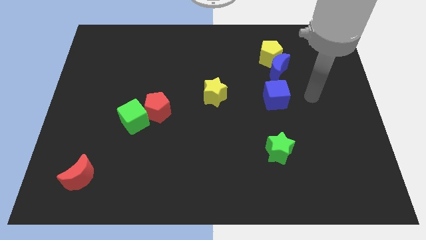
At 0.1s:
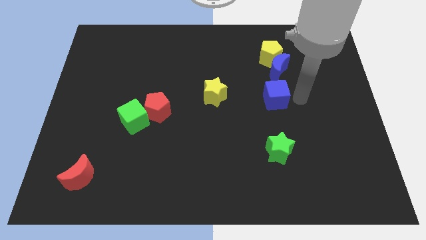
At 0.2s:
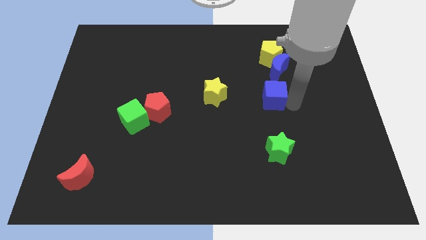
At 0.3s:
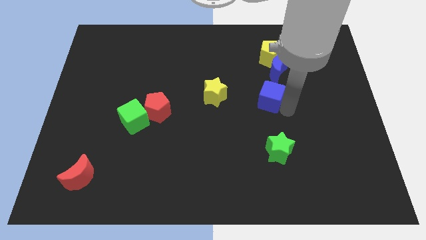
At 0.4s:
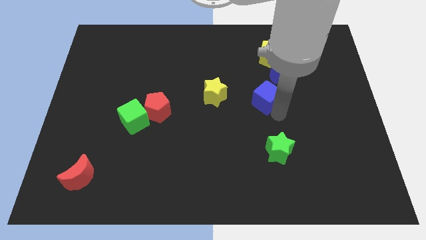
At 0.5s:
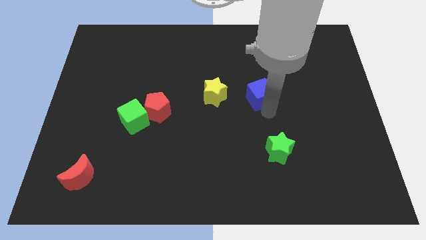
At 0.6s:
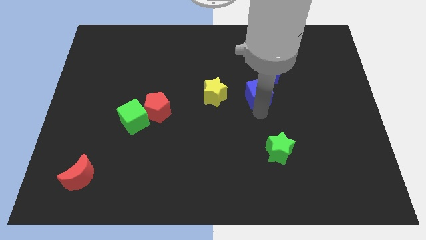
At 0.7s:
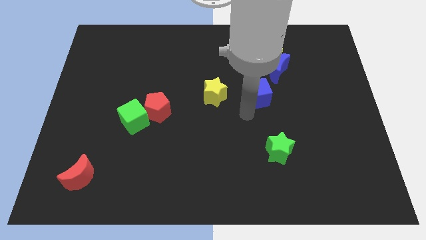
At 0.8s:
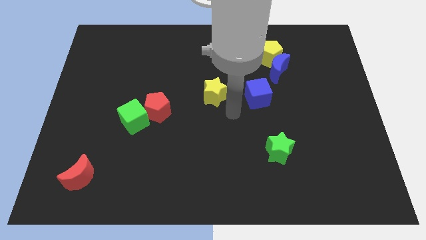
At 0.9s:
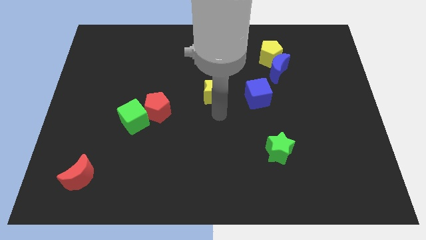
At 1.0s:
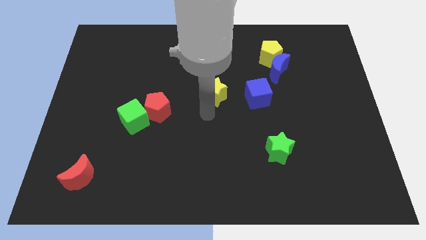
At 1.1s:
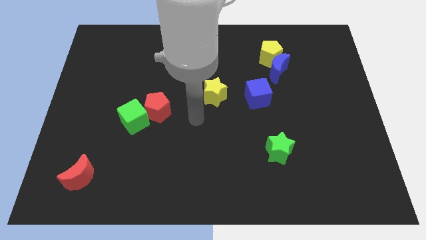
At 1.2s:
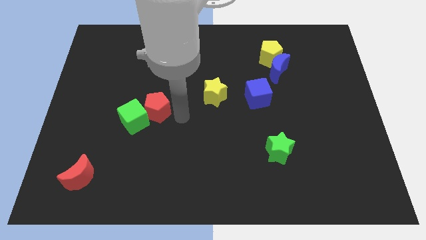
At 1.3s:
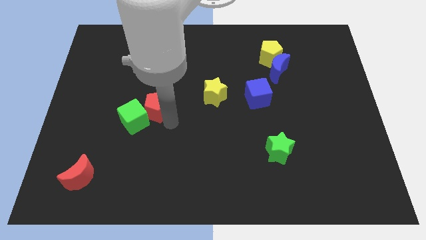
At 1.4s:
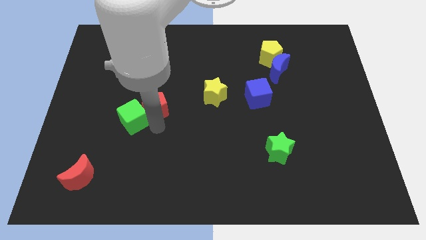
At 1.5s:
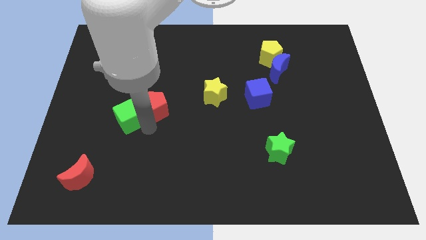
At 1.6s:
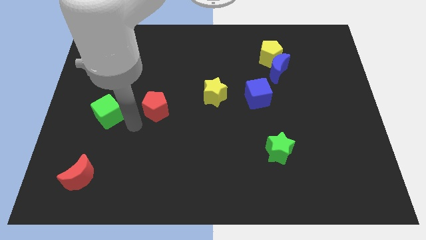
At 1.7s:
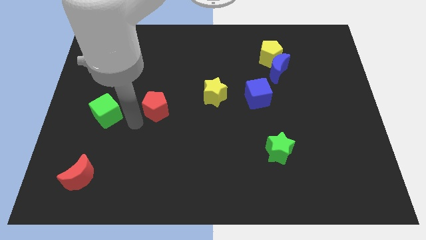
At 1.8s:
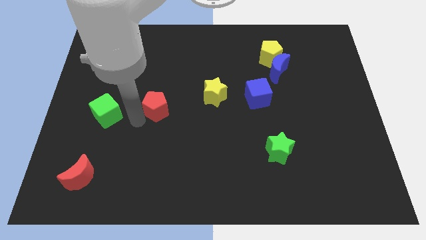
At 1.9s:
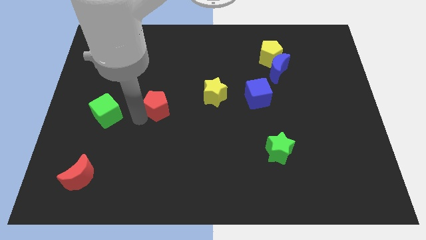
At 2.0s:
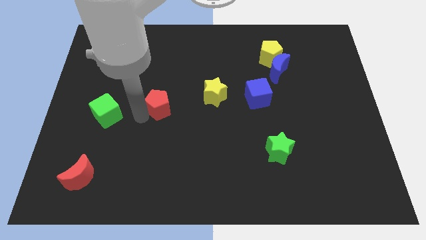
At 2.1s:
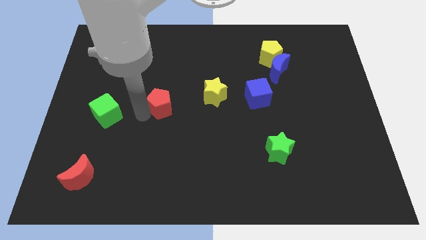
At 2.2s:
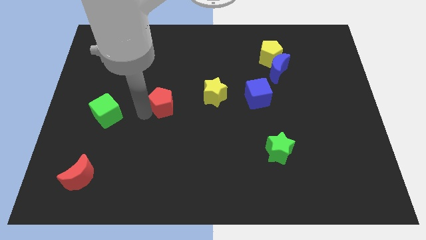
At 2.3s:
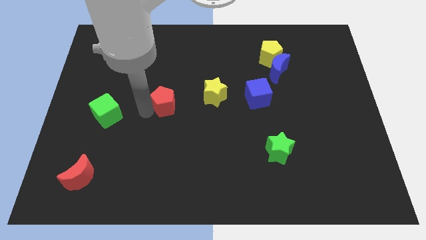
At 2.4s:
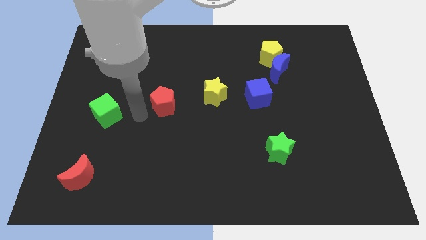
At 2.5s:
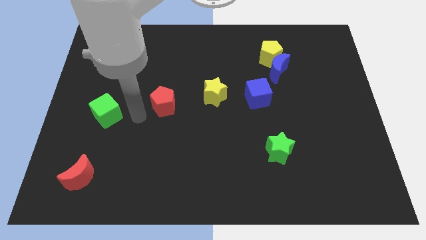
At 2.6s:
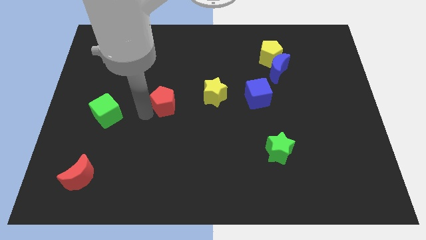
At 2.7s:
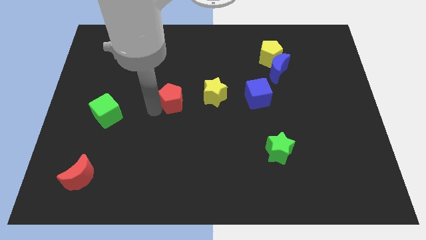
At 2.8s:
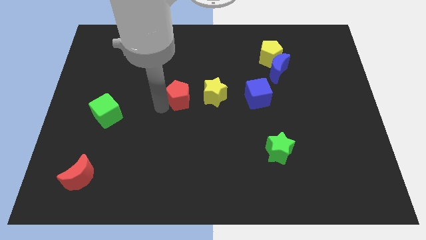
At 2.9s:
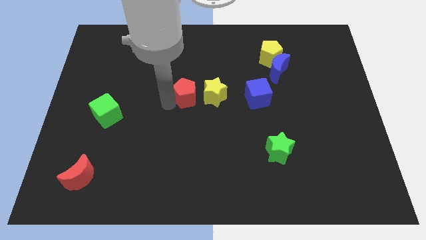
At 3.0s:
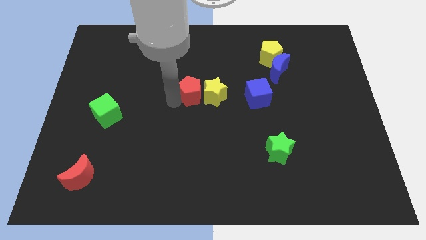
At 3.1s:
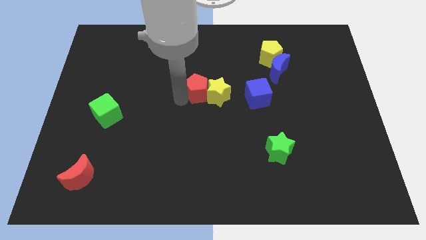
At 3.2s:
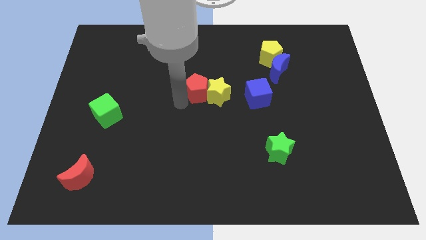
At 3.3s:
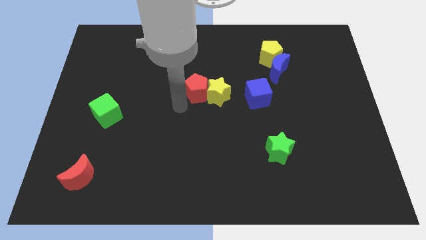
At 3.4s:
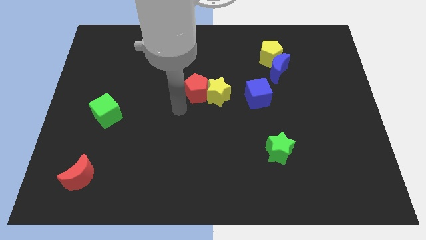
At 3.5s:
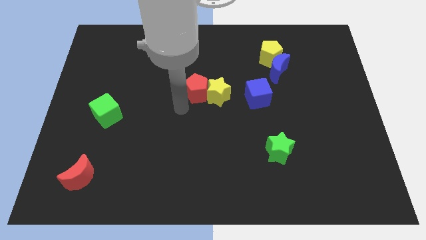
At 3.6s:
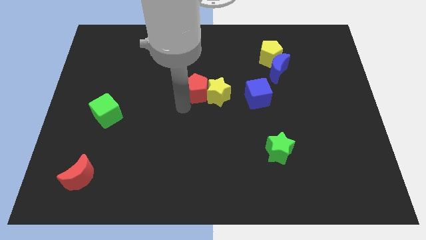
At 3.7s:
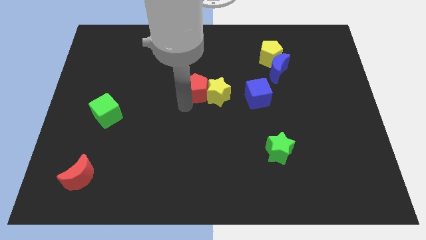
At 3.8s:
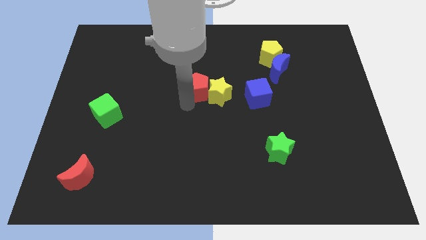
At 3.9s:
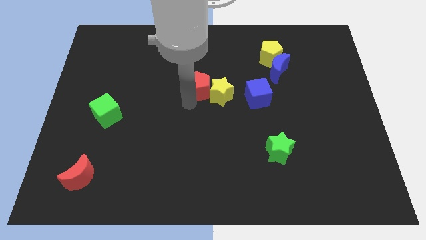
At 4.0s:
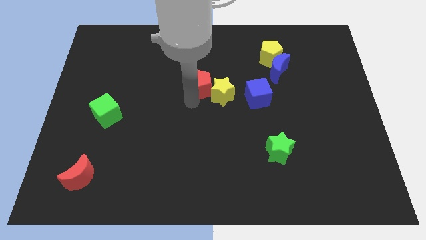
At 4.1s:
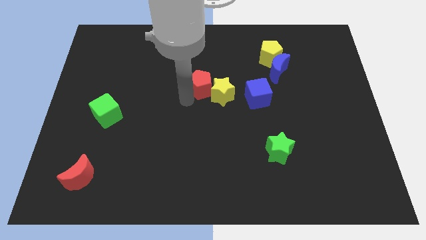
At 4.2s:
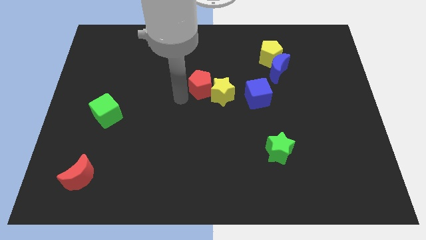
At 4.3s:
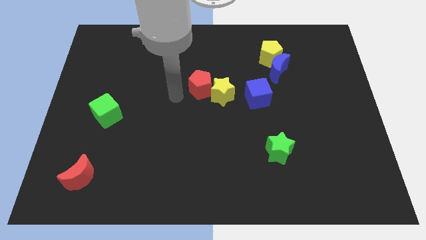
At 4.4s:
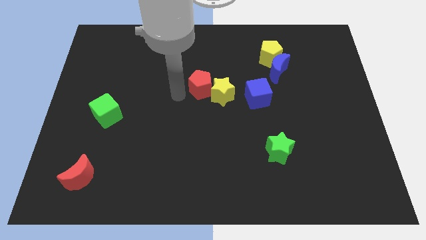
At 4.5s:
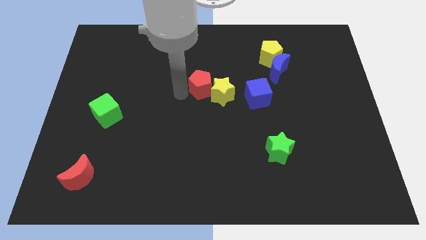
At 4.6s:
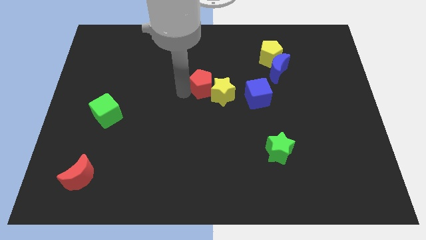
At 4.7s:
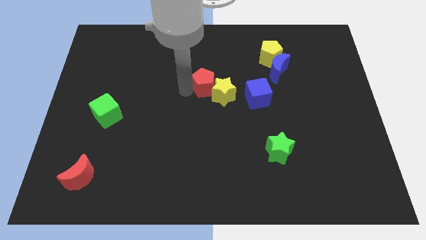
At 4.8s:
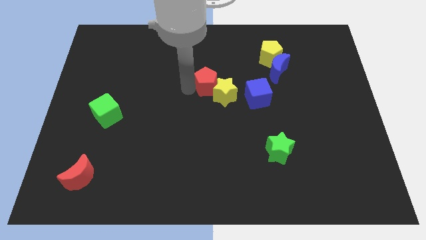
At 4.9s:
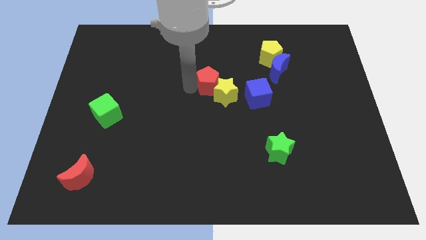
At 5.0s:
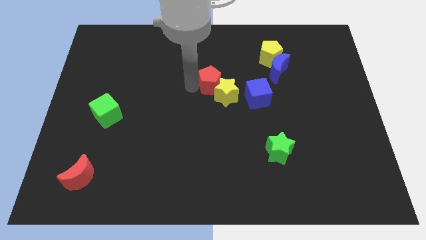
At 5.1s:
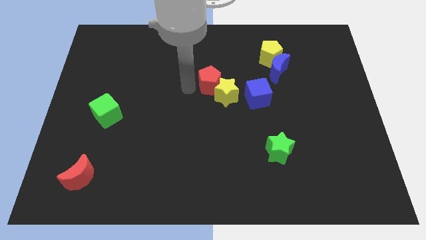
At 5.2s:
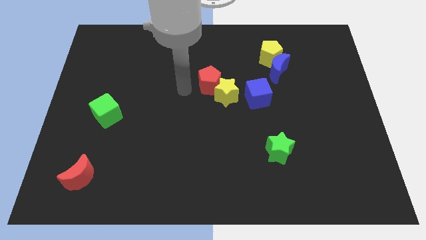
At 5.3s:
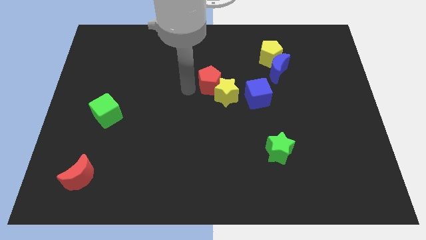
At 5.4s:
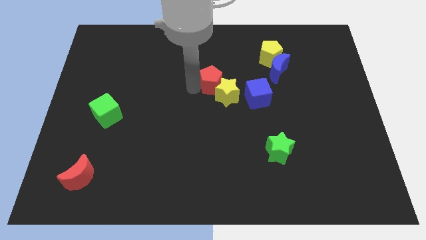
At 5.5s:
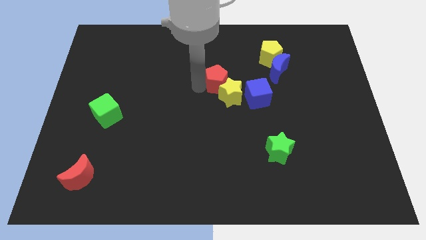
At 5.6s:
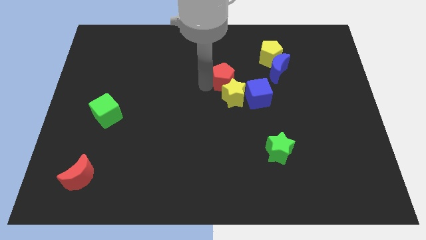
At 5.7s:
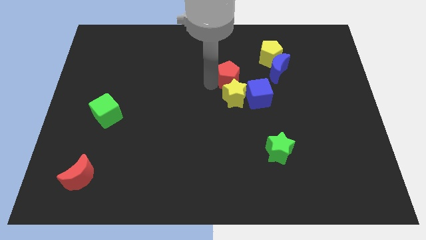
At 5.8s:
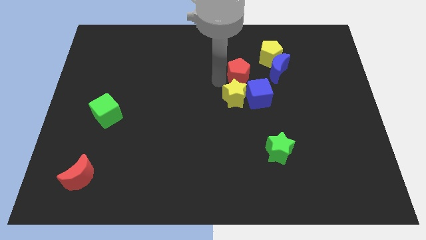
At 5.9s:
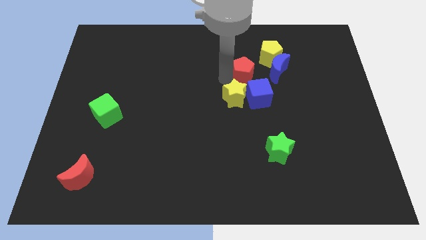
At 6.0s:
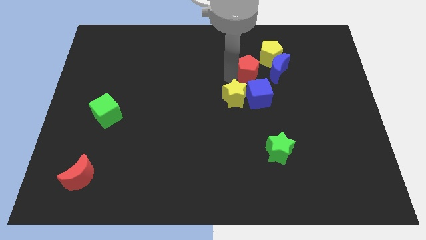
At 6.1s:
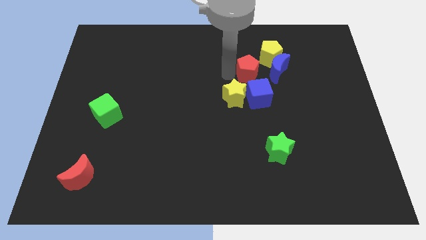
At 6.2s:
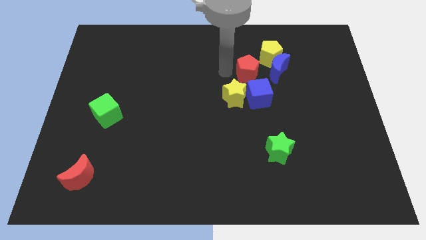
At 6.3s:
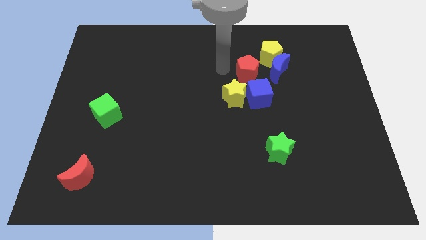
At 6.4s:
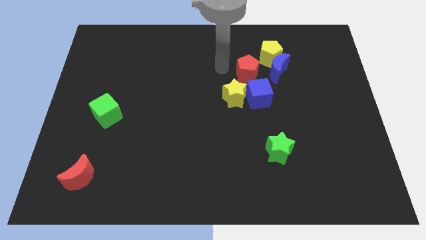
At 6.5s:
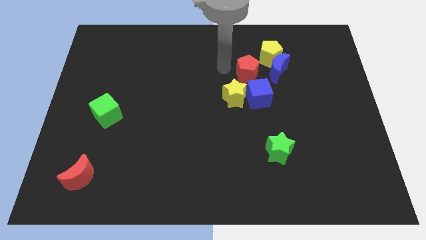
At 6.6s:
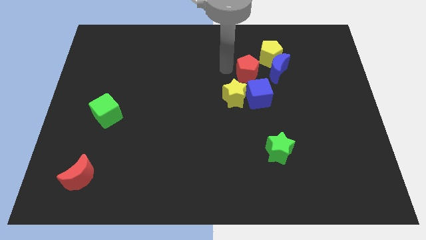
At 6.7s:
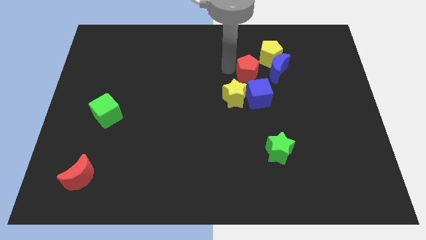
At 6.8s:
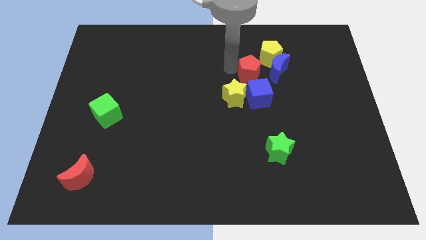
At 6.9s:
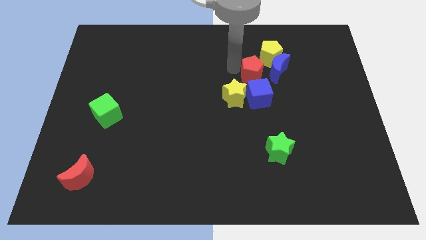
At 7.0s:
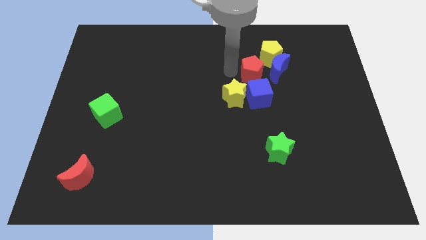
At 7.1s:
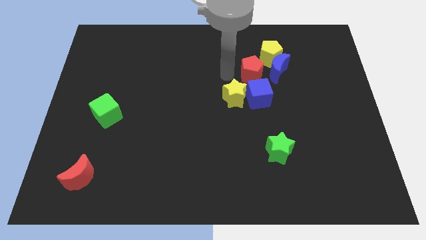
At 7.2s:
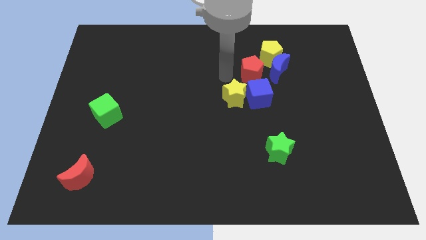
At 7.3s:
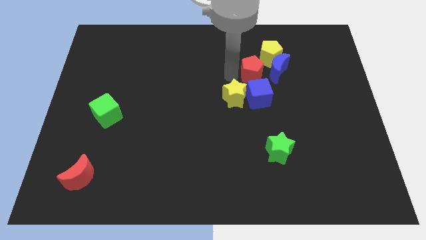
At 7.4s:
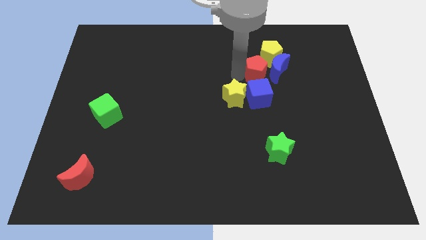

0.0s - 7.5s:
move the red pentagon towards the blue moon
